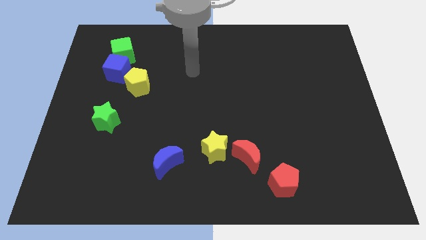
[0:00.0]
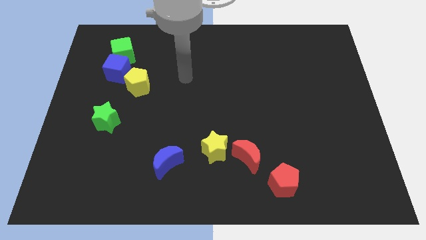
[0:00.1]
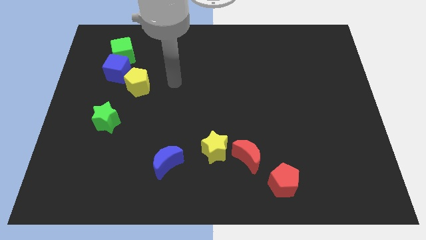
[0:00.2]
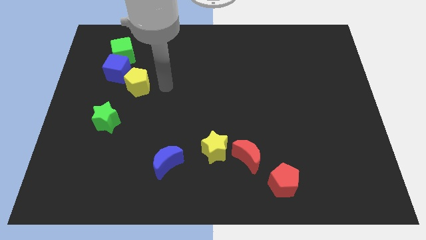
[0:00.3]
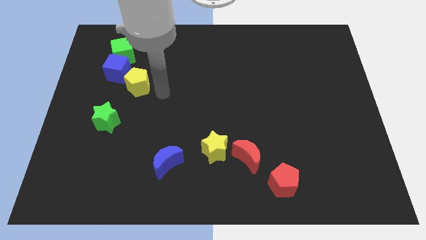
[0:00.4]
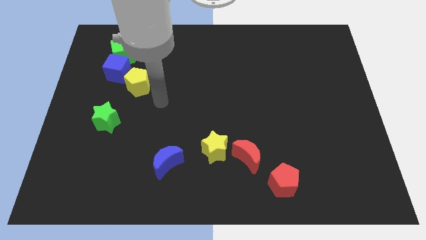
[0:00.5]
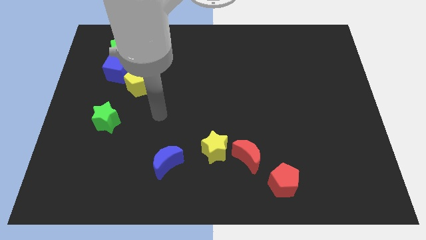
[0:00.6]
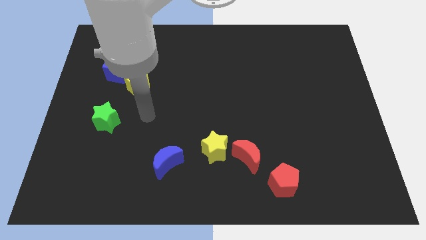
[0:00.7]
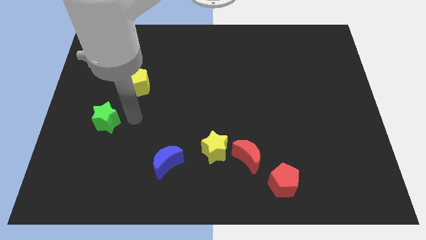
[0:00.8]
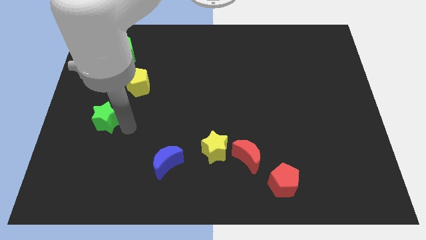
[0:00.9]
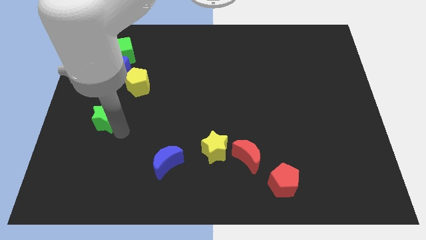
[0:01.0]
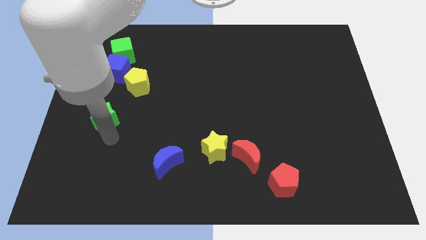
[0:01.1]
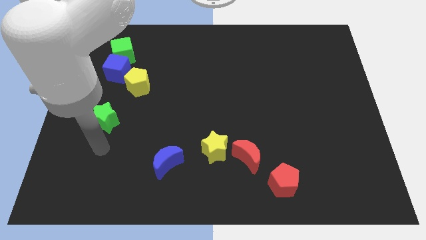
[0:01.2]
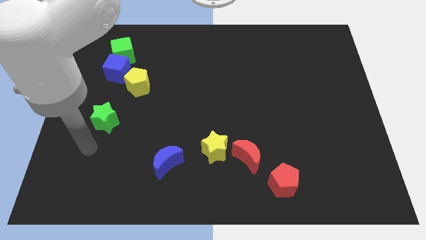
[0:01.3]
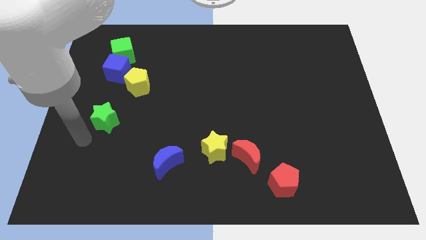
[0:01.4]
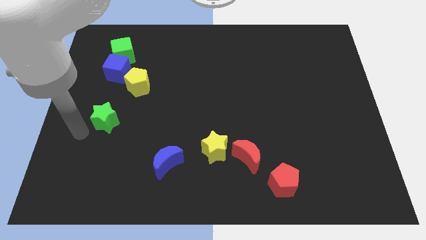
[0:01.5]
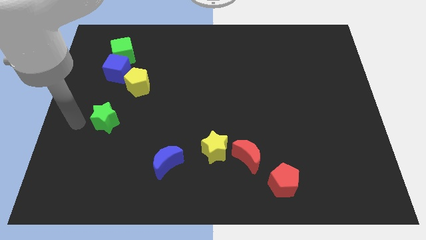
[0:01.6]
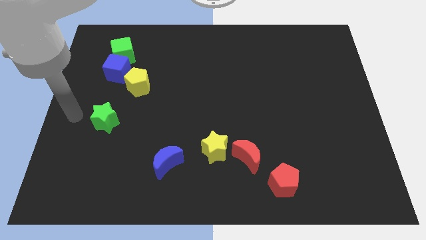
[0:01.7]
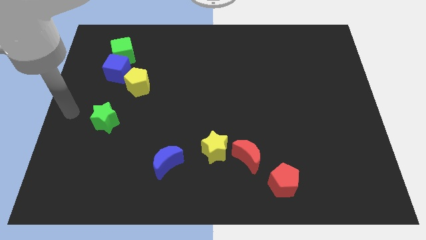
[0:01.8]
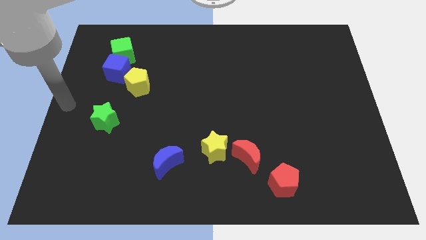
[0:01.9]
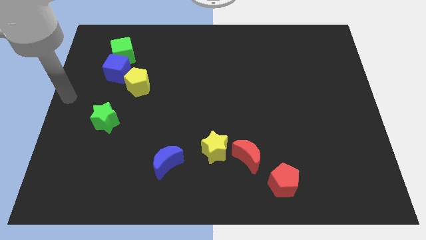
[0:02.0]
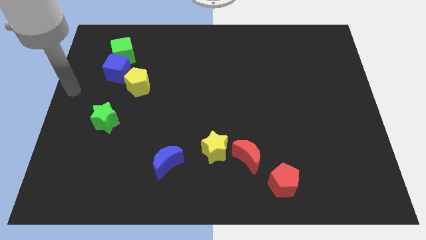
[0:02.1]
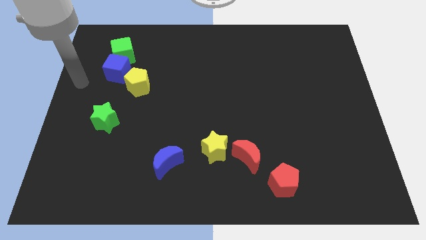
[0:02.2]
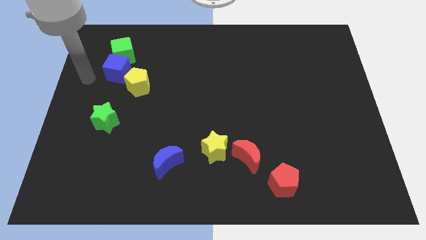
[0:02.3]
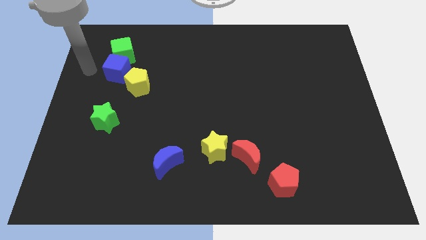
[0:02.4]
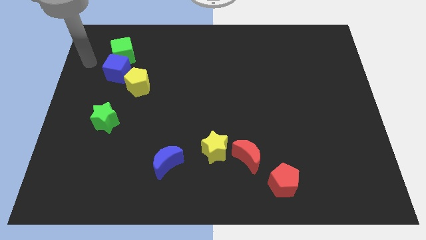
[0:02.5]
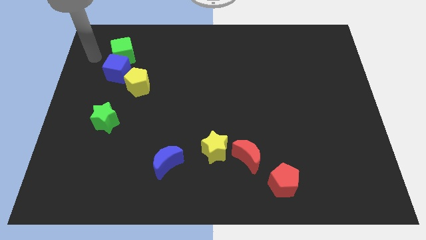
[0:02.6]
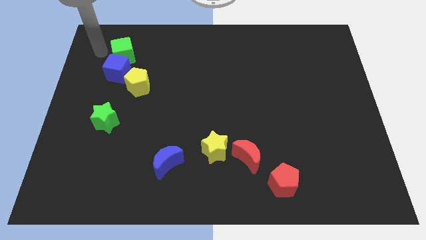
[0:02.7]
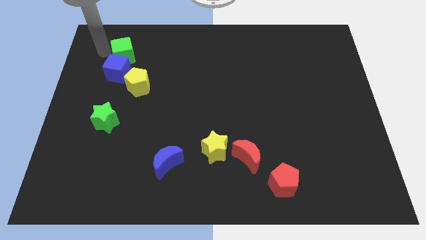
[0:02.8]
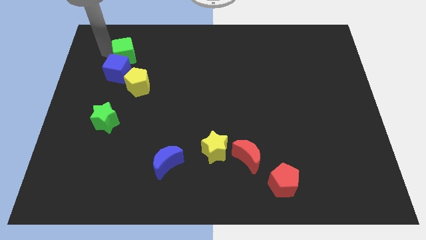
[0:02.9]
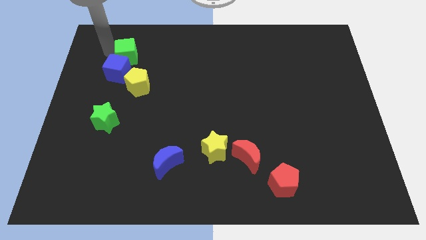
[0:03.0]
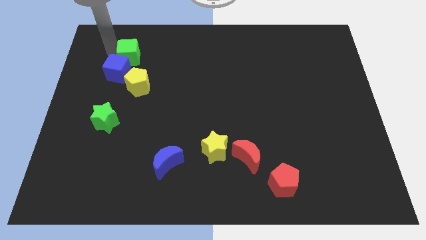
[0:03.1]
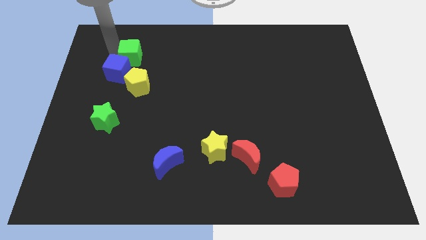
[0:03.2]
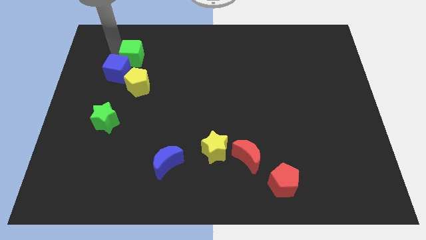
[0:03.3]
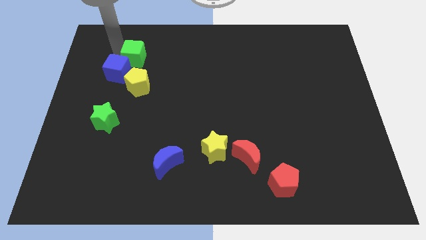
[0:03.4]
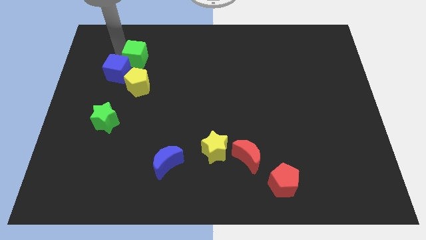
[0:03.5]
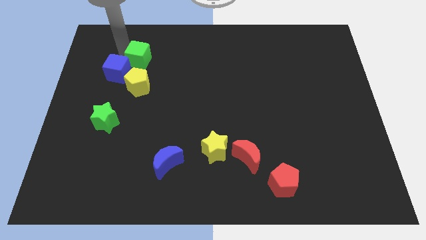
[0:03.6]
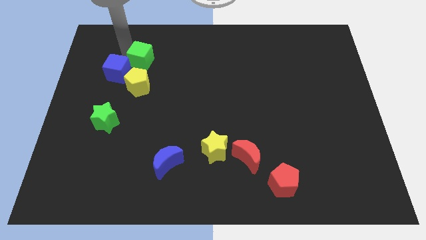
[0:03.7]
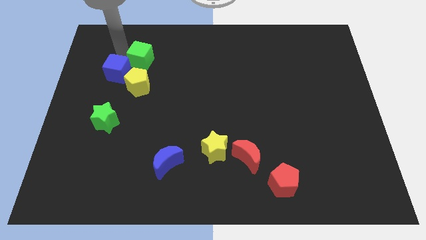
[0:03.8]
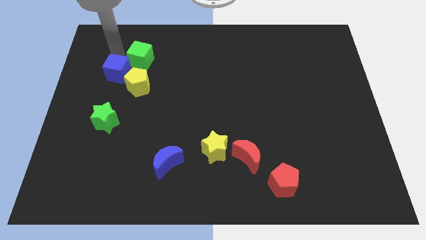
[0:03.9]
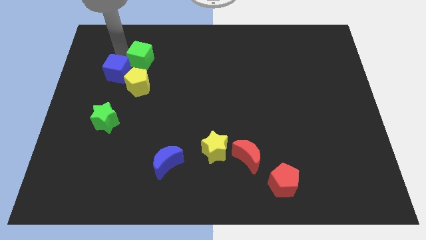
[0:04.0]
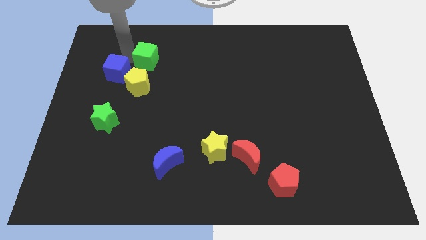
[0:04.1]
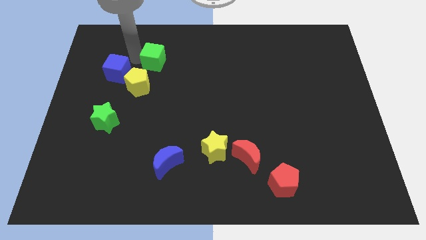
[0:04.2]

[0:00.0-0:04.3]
slightly move the green cube to the right

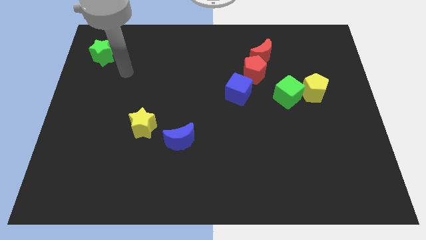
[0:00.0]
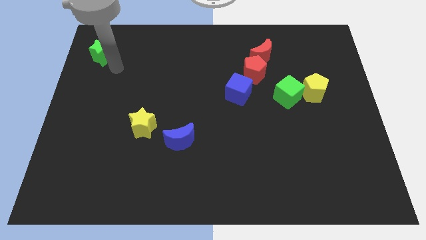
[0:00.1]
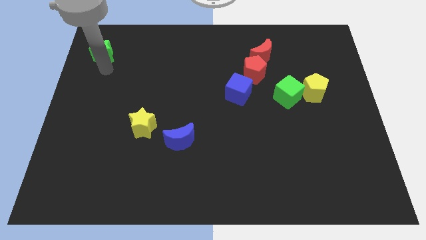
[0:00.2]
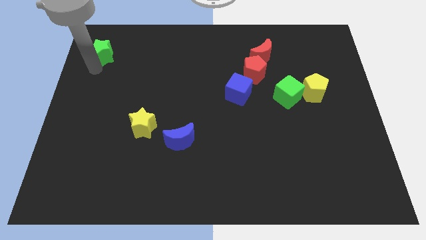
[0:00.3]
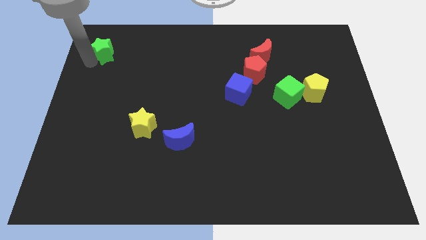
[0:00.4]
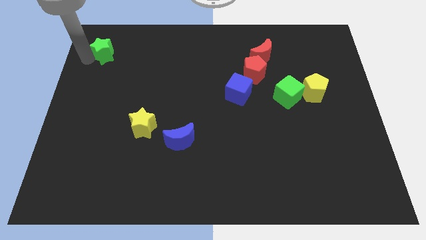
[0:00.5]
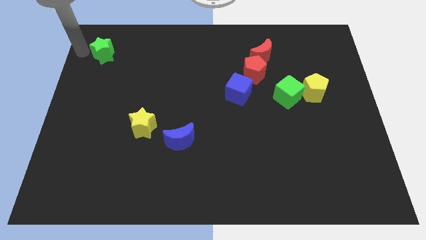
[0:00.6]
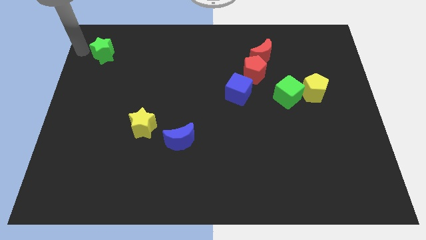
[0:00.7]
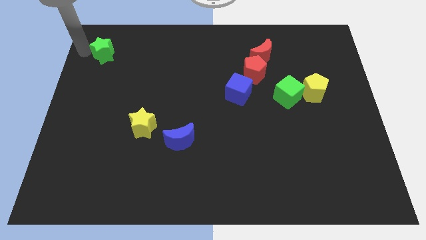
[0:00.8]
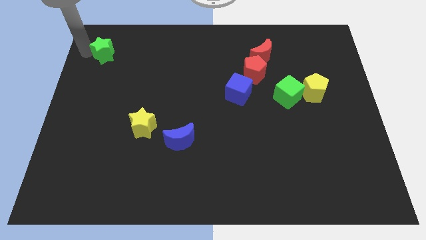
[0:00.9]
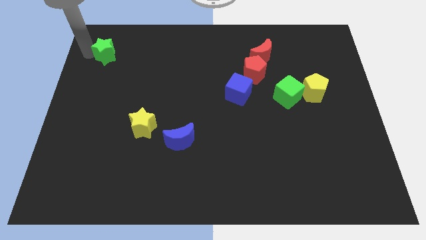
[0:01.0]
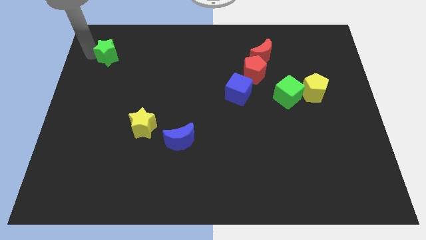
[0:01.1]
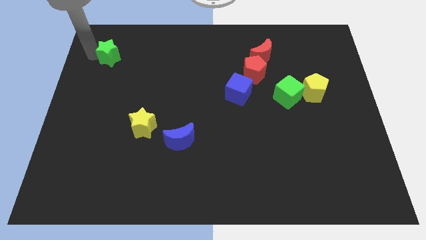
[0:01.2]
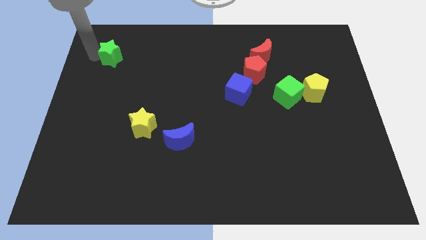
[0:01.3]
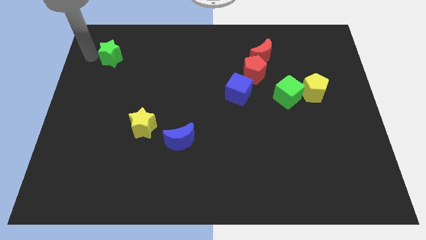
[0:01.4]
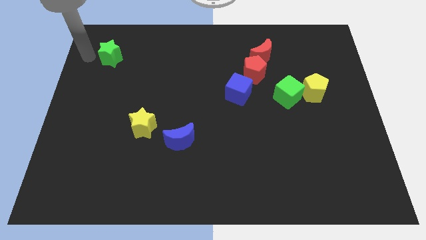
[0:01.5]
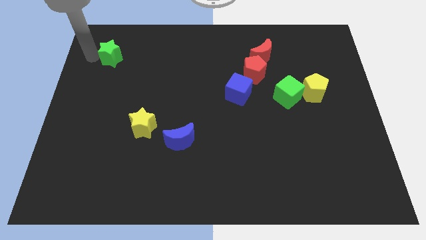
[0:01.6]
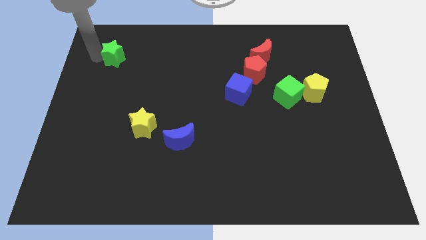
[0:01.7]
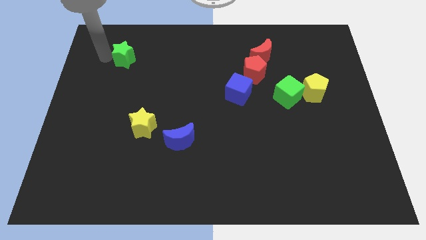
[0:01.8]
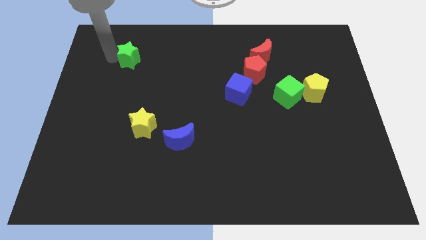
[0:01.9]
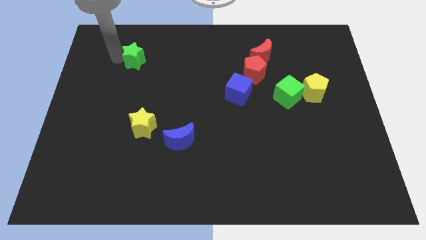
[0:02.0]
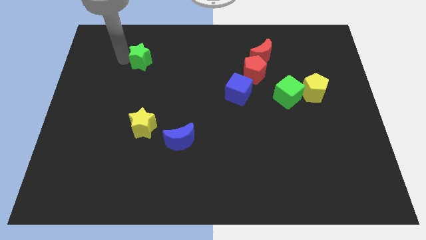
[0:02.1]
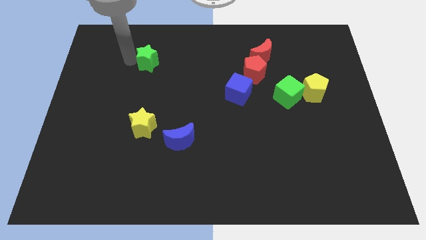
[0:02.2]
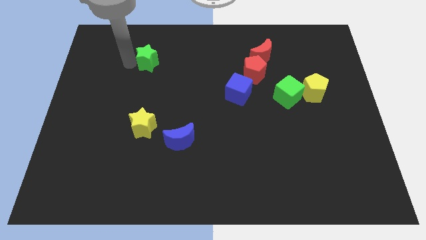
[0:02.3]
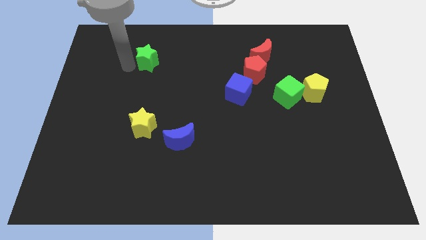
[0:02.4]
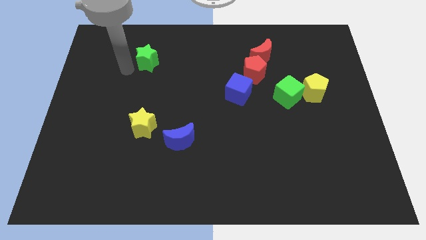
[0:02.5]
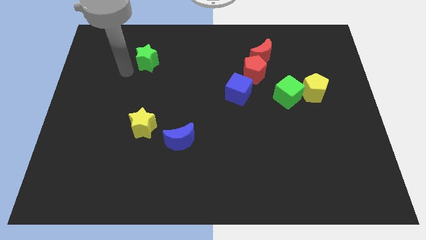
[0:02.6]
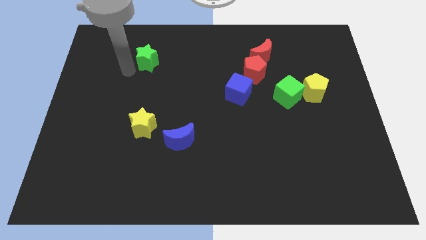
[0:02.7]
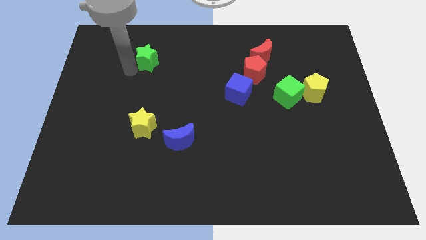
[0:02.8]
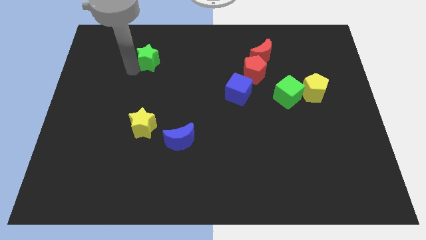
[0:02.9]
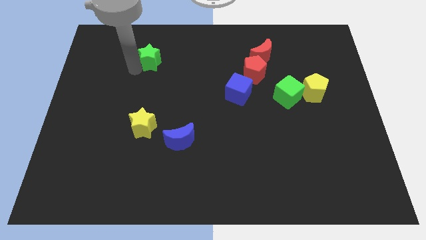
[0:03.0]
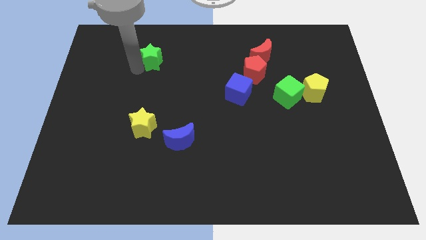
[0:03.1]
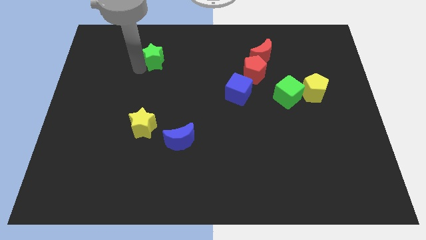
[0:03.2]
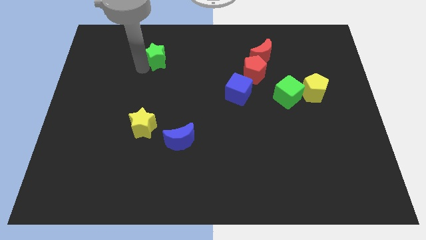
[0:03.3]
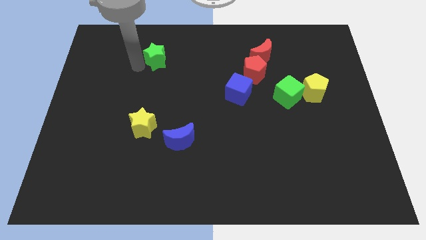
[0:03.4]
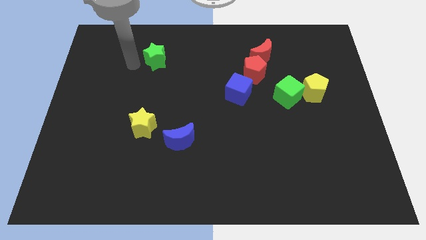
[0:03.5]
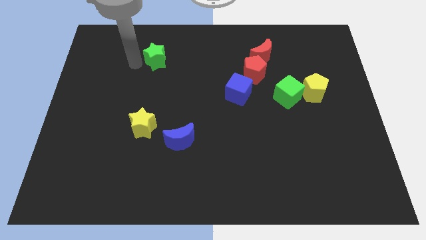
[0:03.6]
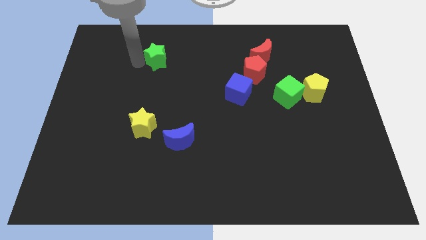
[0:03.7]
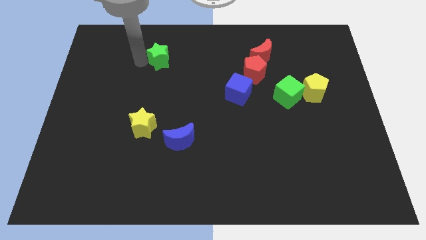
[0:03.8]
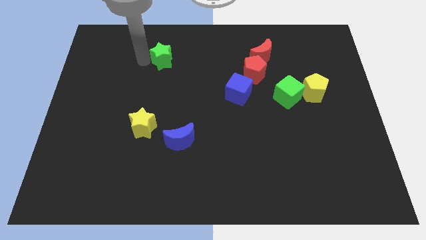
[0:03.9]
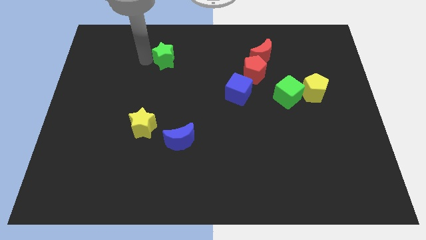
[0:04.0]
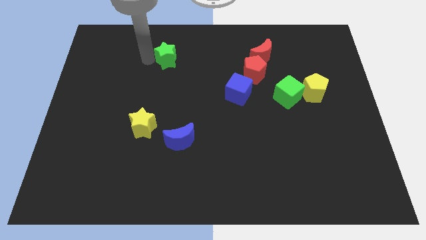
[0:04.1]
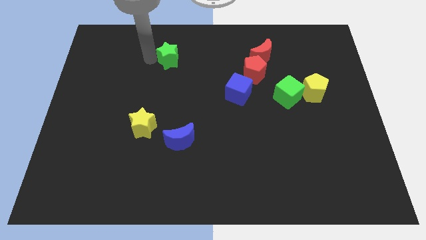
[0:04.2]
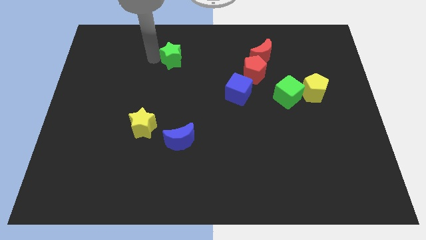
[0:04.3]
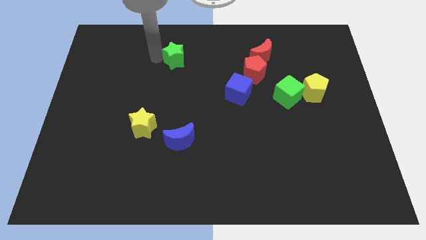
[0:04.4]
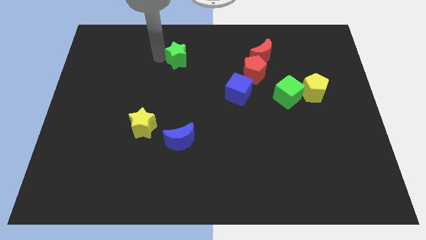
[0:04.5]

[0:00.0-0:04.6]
push the green star right
